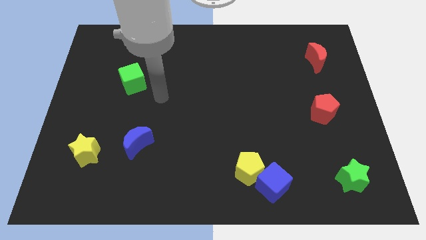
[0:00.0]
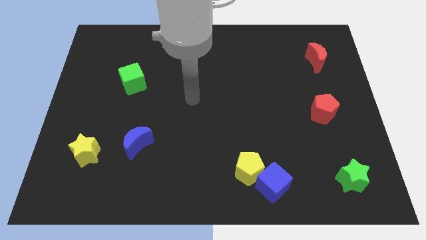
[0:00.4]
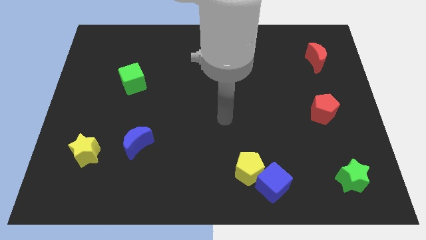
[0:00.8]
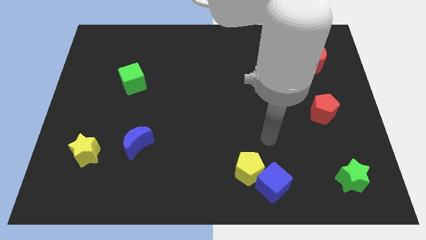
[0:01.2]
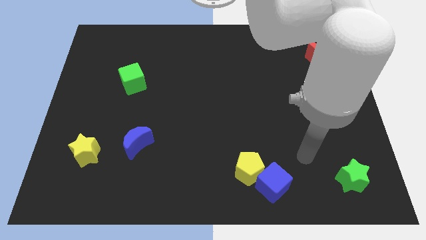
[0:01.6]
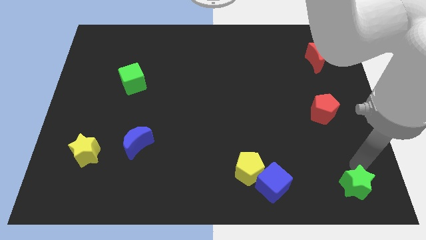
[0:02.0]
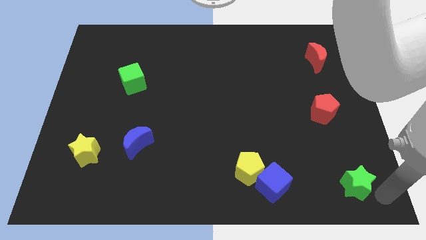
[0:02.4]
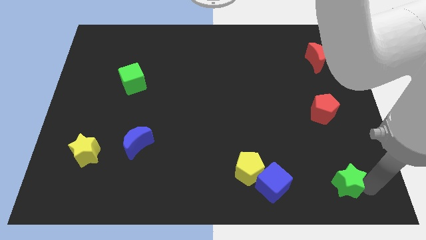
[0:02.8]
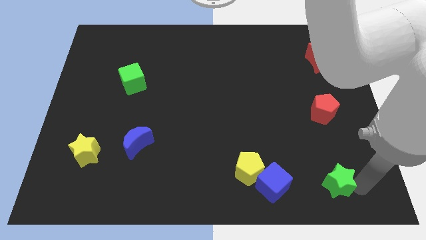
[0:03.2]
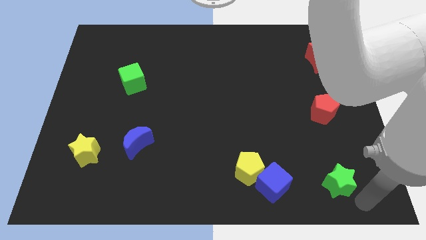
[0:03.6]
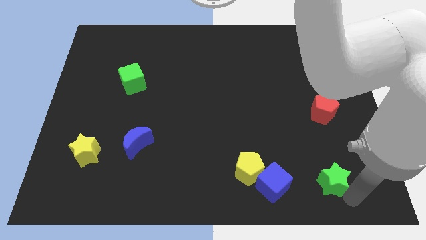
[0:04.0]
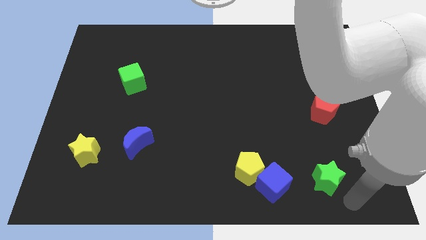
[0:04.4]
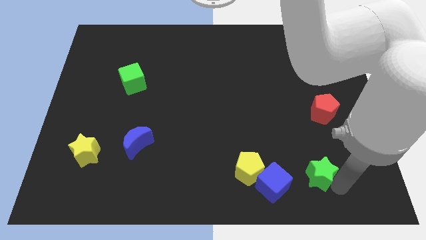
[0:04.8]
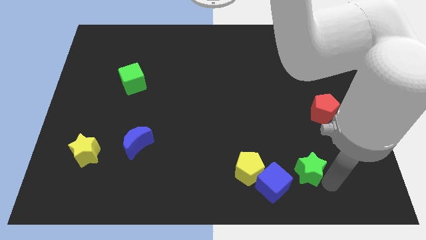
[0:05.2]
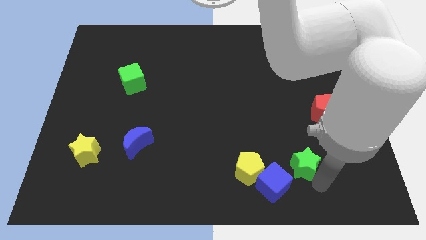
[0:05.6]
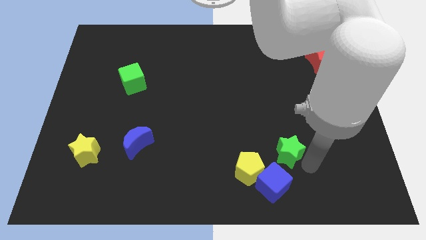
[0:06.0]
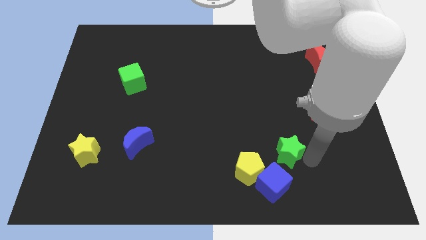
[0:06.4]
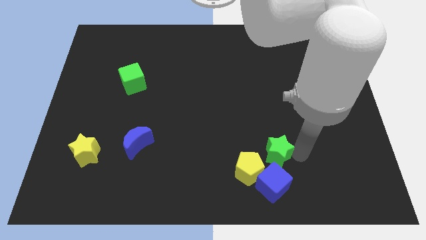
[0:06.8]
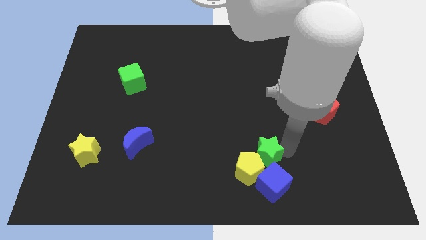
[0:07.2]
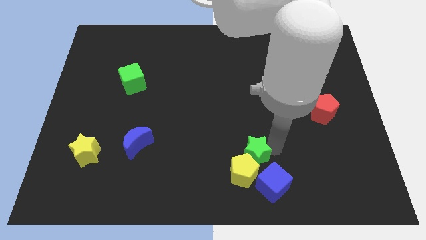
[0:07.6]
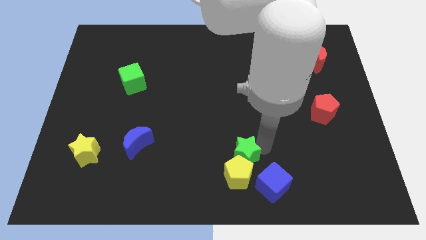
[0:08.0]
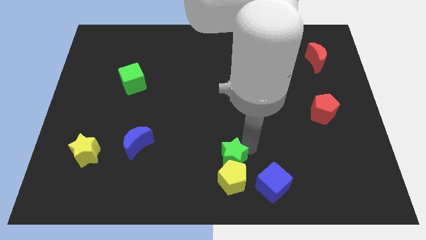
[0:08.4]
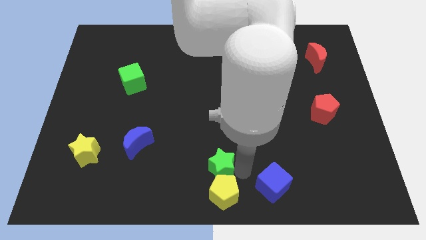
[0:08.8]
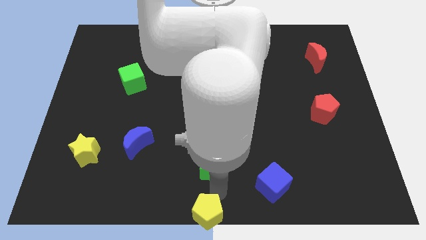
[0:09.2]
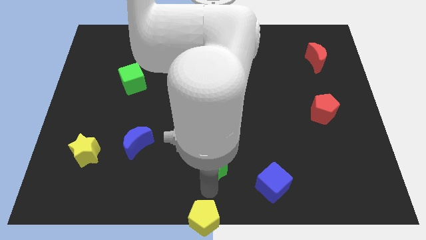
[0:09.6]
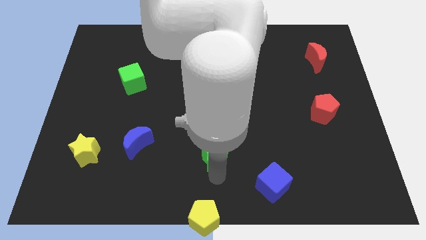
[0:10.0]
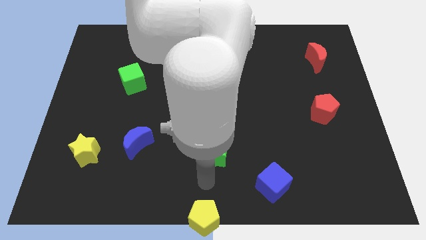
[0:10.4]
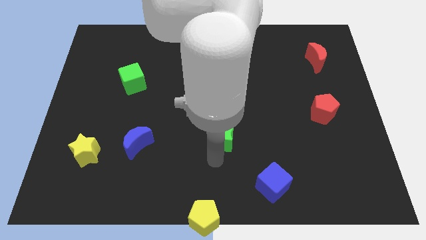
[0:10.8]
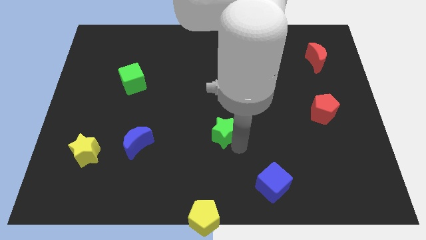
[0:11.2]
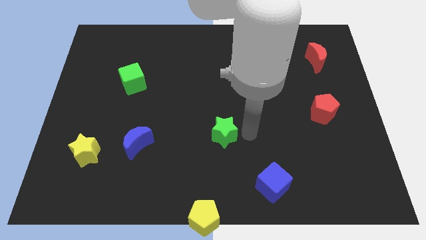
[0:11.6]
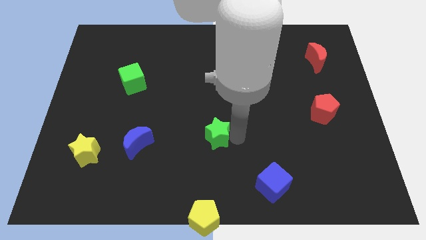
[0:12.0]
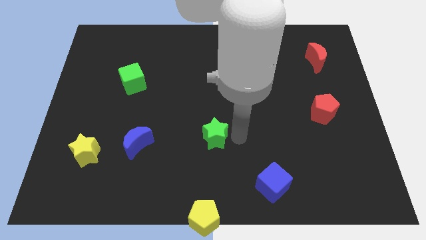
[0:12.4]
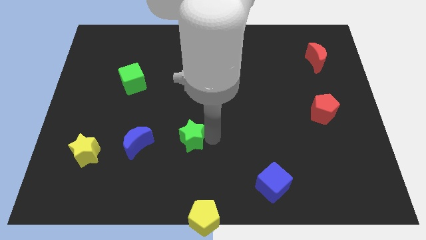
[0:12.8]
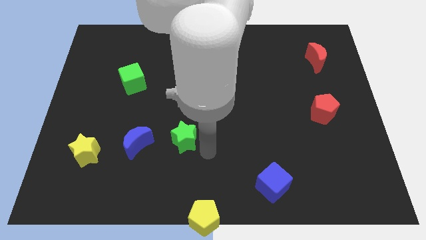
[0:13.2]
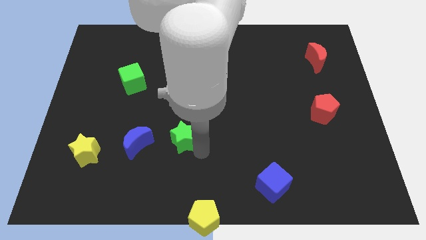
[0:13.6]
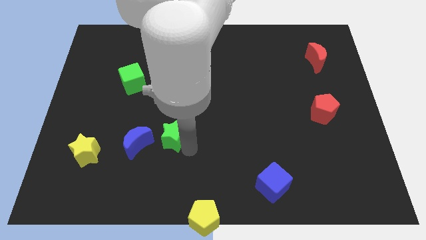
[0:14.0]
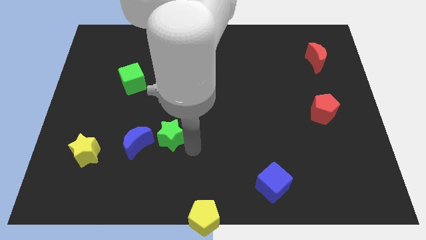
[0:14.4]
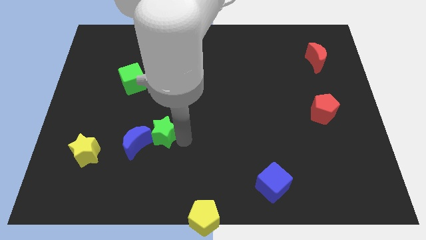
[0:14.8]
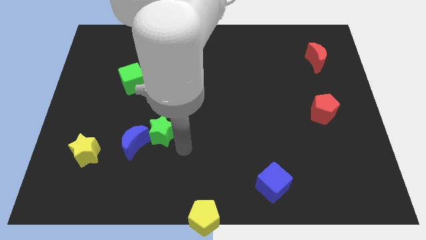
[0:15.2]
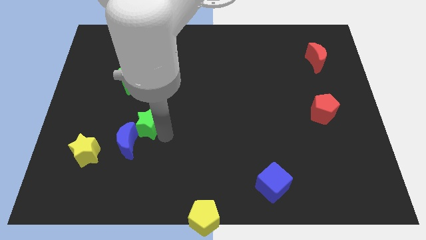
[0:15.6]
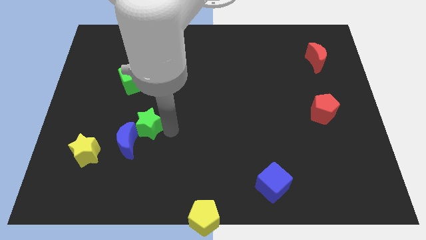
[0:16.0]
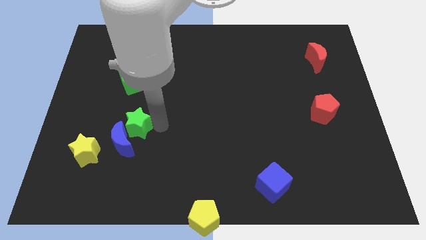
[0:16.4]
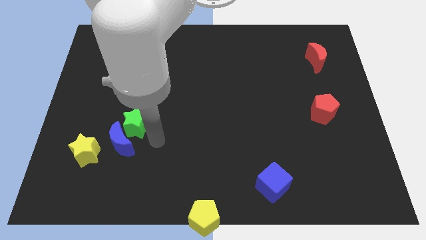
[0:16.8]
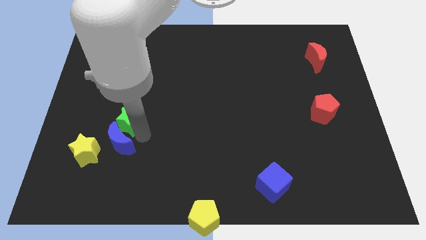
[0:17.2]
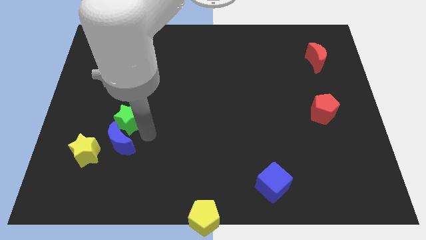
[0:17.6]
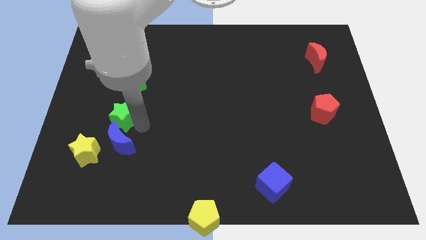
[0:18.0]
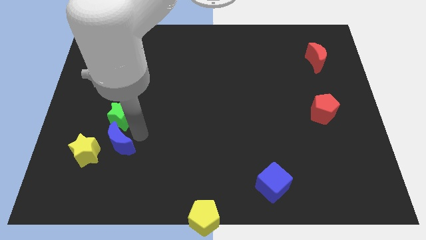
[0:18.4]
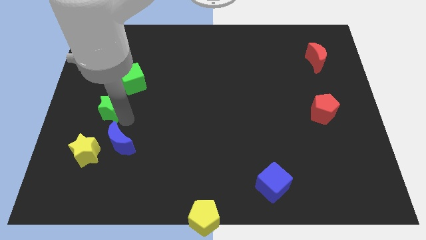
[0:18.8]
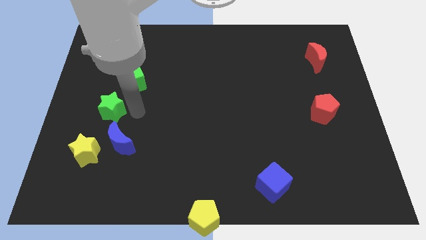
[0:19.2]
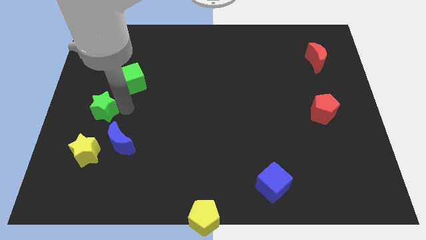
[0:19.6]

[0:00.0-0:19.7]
slide the green star to the left side

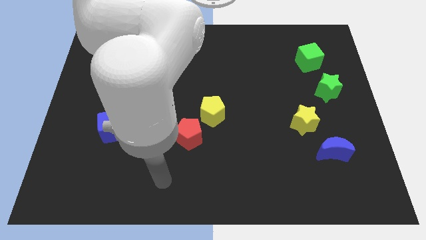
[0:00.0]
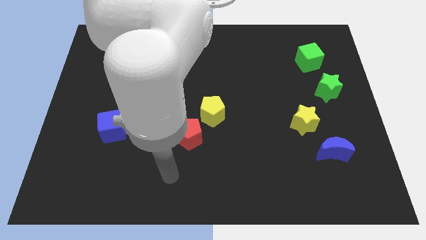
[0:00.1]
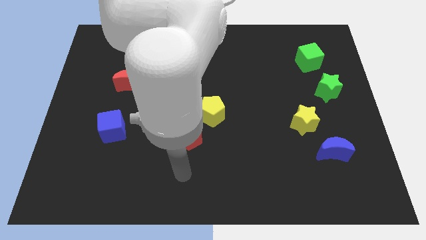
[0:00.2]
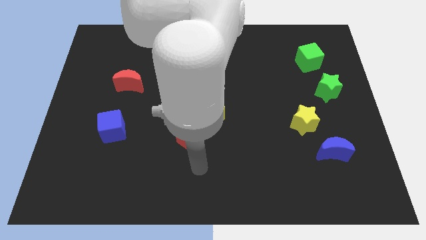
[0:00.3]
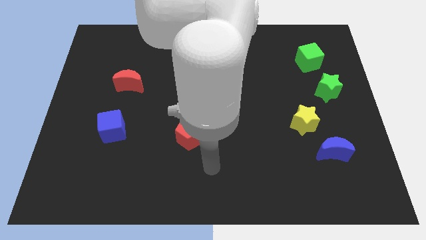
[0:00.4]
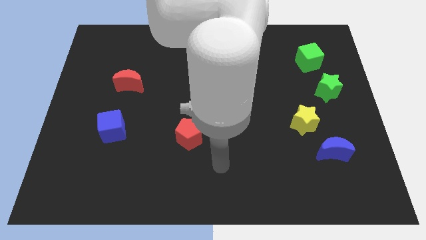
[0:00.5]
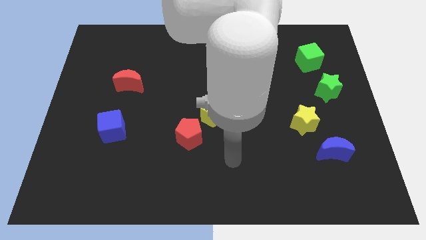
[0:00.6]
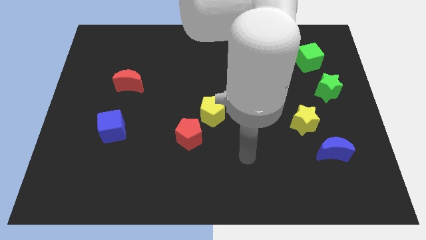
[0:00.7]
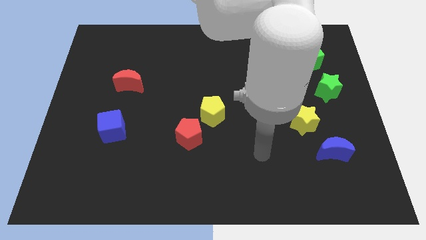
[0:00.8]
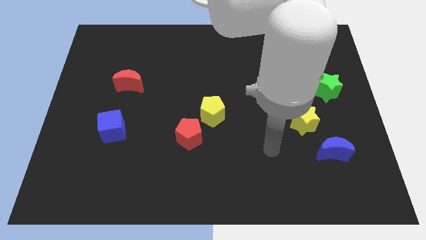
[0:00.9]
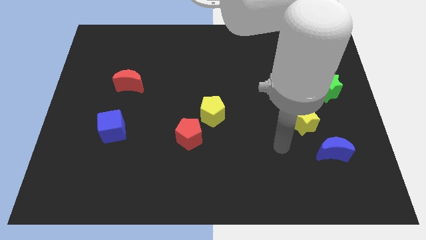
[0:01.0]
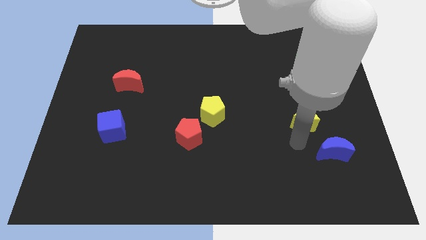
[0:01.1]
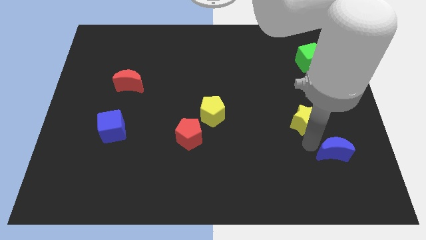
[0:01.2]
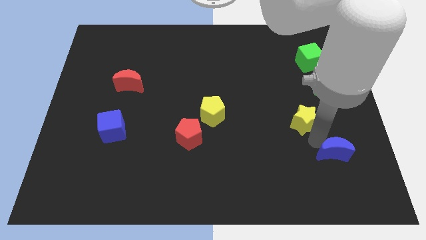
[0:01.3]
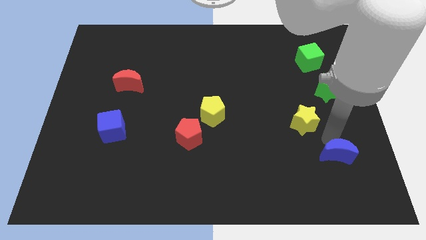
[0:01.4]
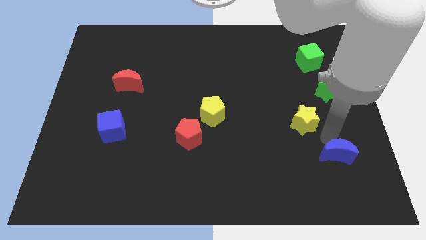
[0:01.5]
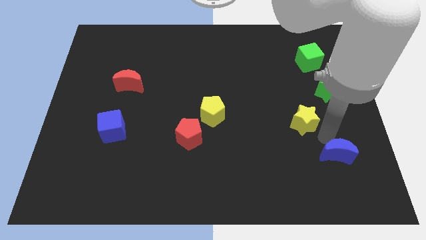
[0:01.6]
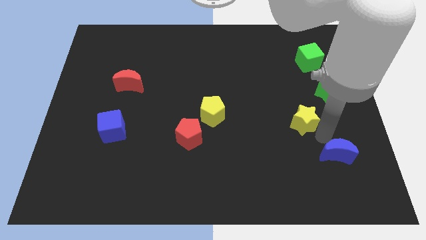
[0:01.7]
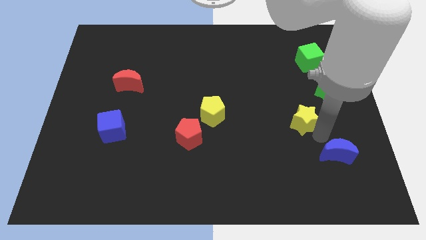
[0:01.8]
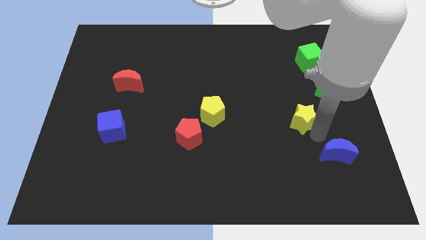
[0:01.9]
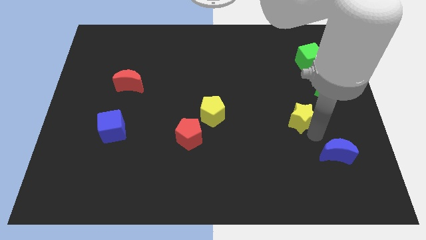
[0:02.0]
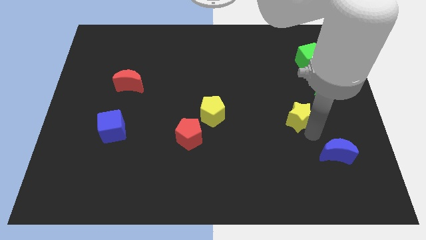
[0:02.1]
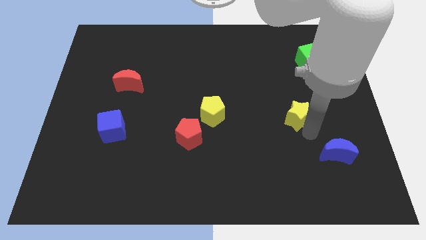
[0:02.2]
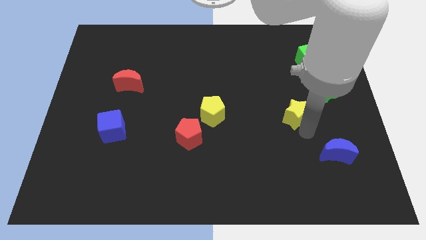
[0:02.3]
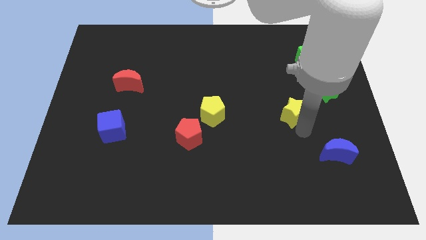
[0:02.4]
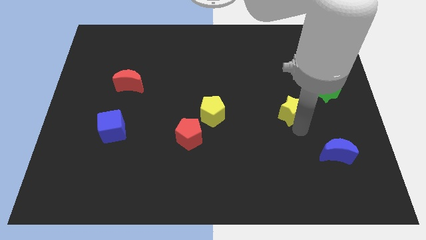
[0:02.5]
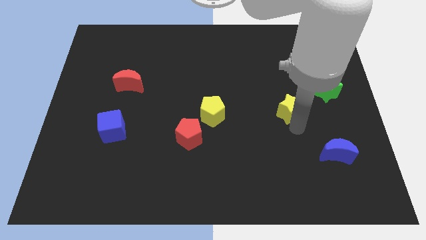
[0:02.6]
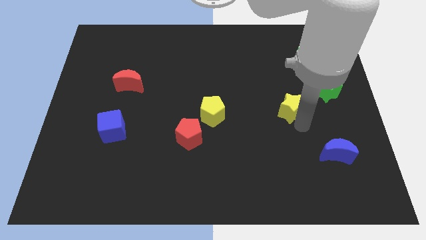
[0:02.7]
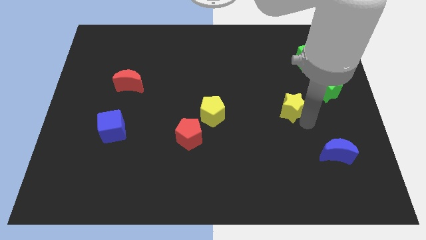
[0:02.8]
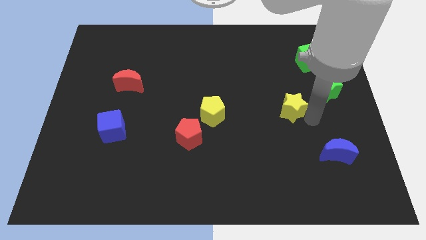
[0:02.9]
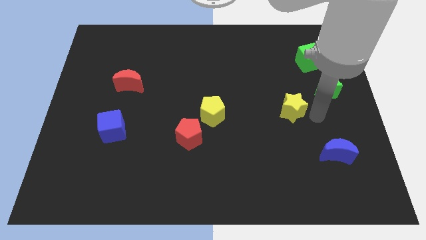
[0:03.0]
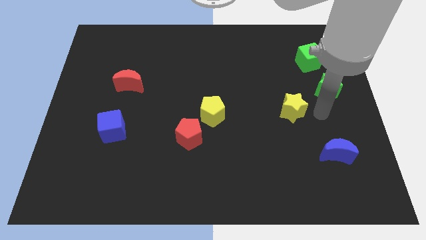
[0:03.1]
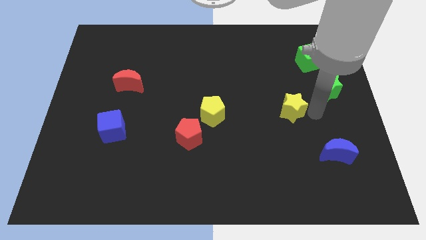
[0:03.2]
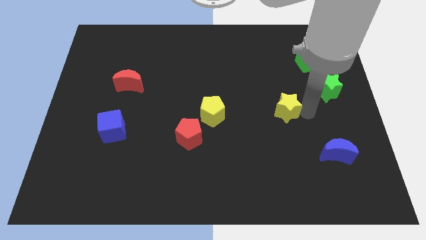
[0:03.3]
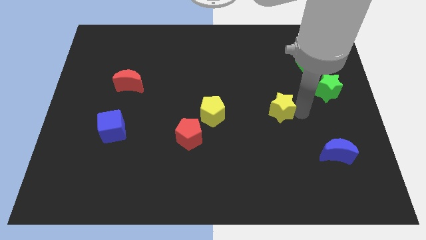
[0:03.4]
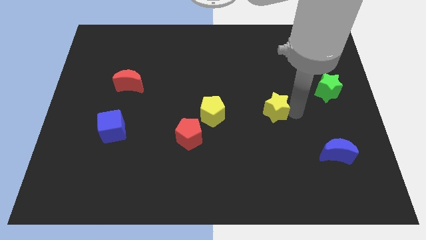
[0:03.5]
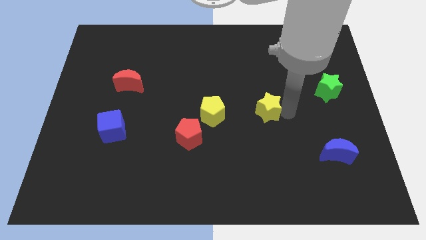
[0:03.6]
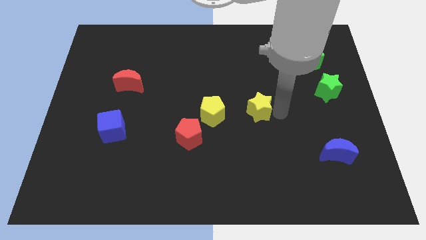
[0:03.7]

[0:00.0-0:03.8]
push the yellow star to the center
